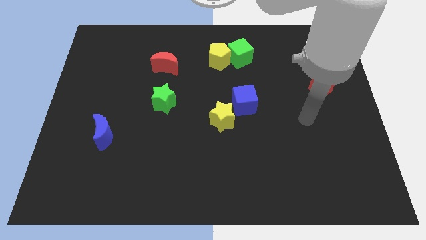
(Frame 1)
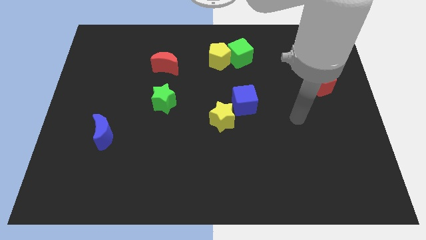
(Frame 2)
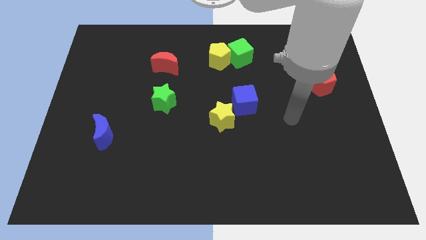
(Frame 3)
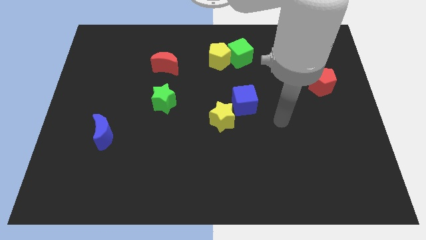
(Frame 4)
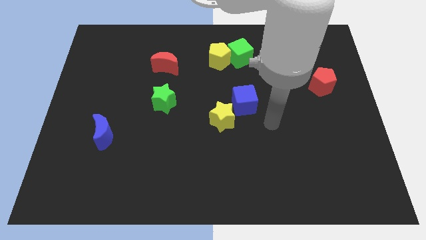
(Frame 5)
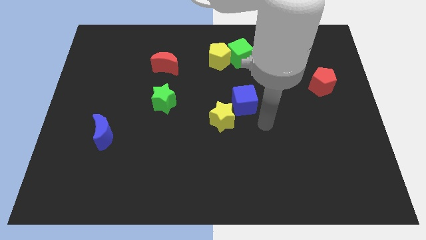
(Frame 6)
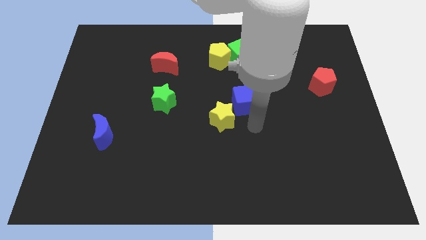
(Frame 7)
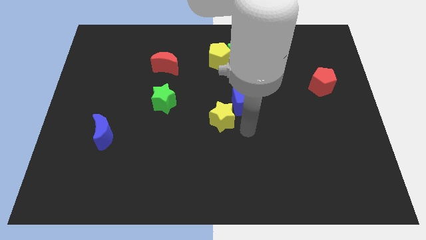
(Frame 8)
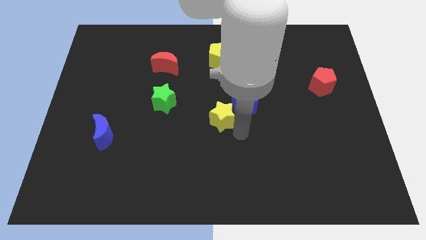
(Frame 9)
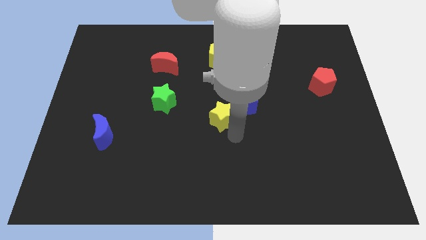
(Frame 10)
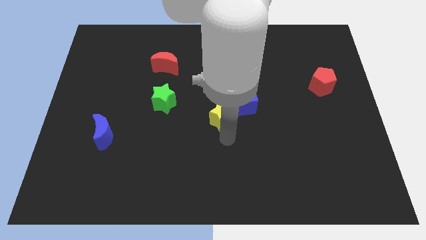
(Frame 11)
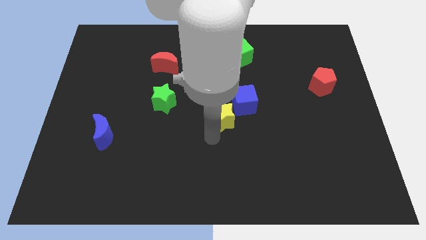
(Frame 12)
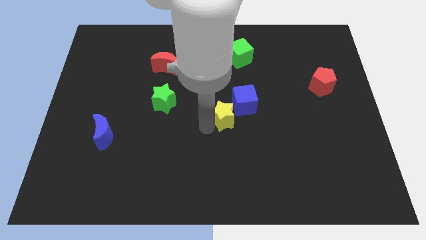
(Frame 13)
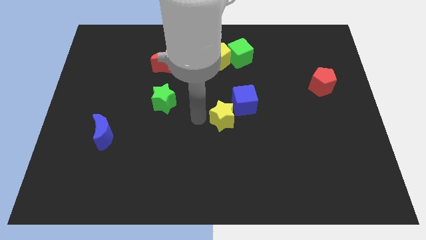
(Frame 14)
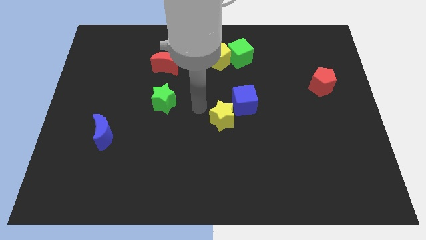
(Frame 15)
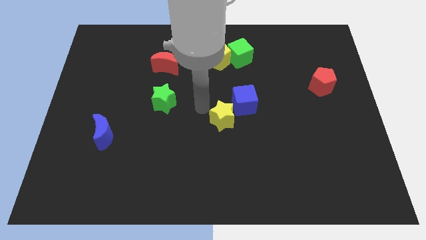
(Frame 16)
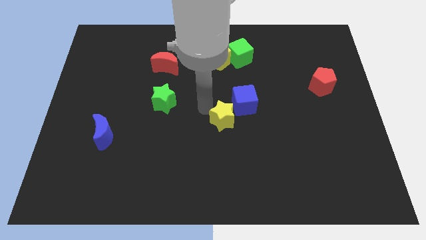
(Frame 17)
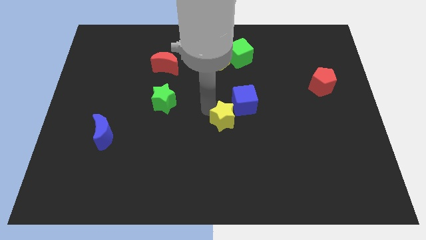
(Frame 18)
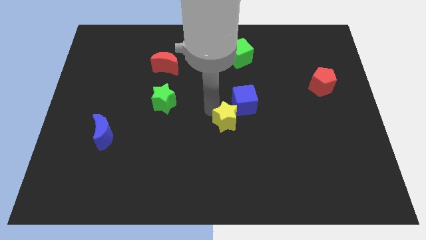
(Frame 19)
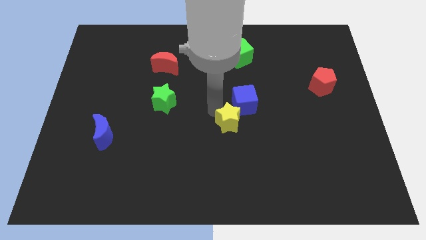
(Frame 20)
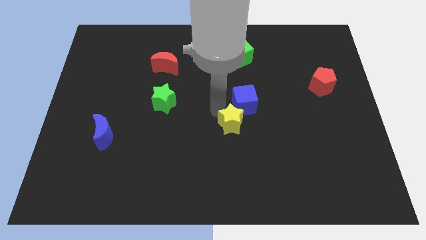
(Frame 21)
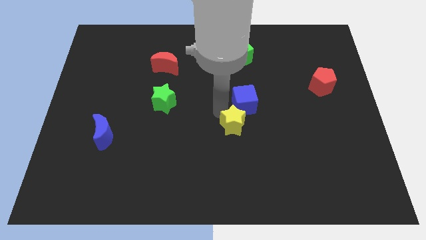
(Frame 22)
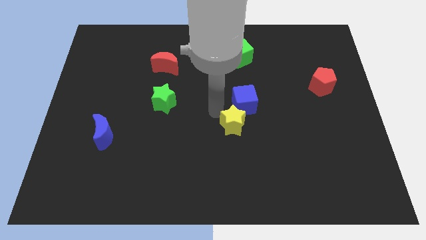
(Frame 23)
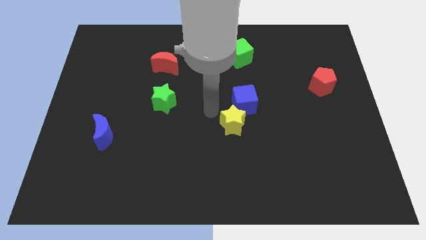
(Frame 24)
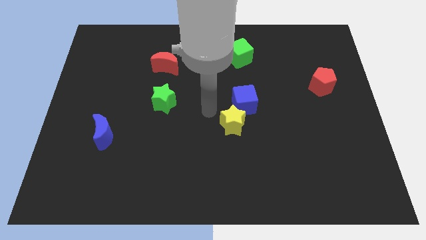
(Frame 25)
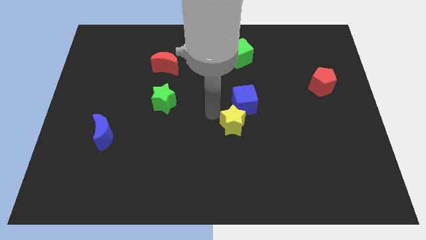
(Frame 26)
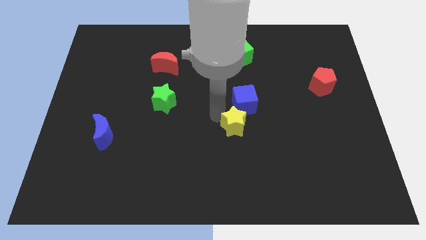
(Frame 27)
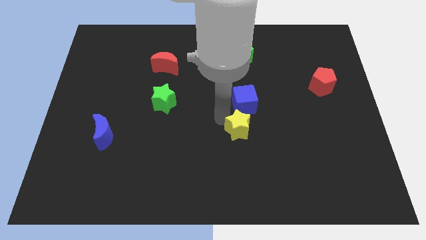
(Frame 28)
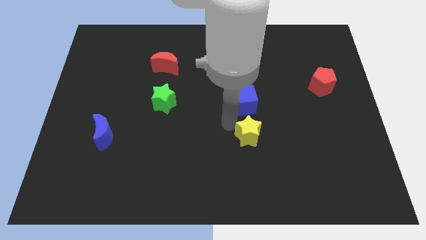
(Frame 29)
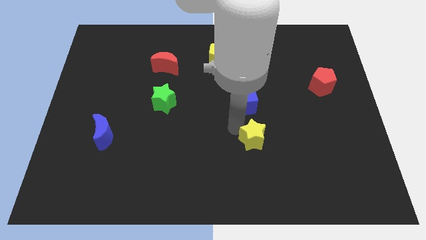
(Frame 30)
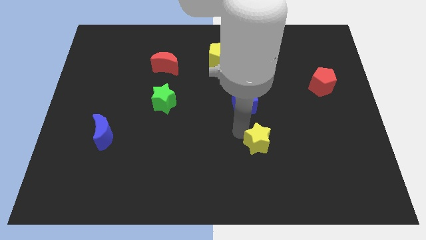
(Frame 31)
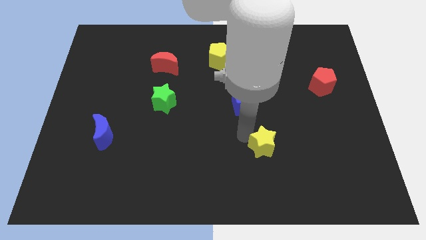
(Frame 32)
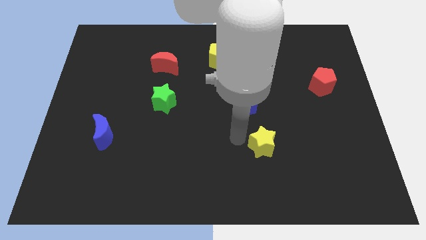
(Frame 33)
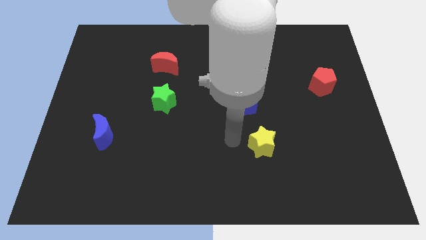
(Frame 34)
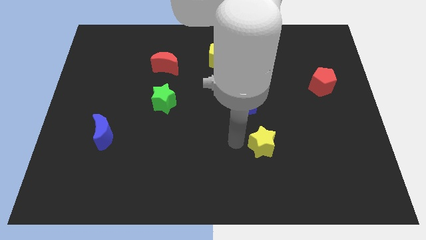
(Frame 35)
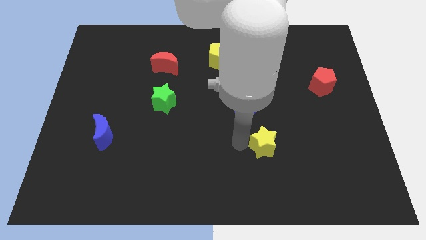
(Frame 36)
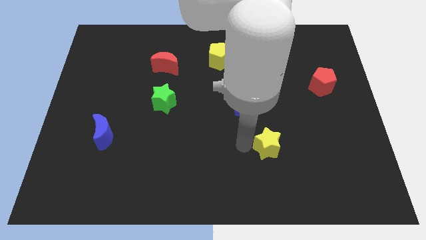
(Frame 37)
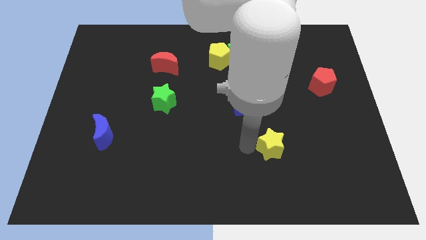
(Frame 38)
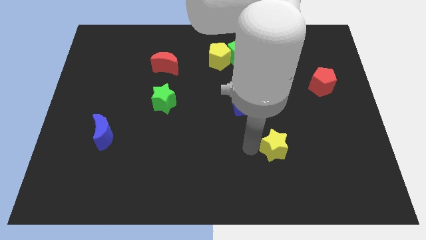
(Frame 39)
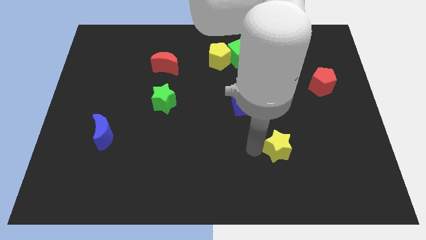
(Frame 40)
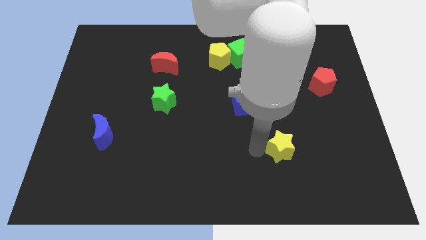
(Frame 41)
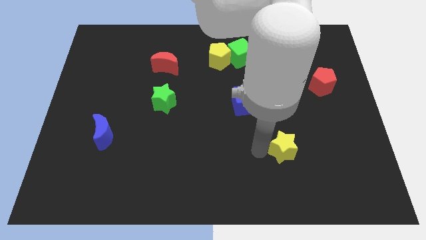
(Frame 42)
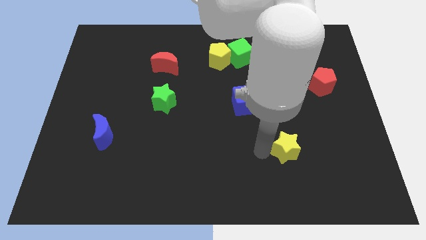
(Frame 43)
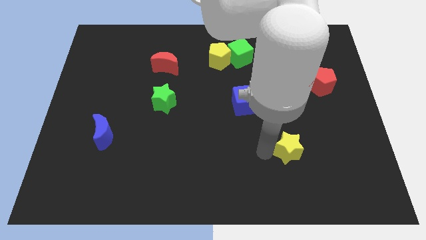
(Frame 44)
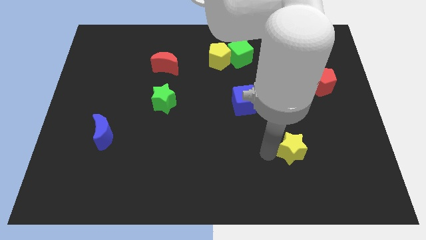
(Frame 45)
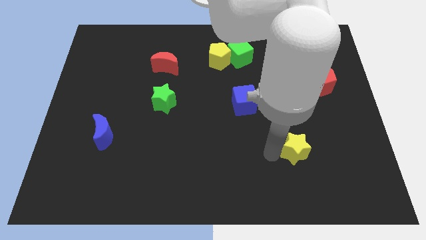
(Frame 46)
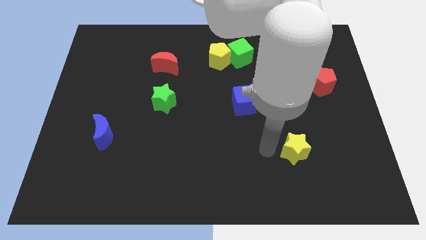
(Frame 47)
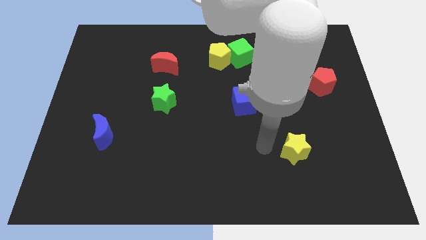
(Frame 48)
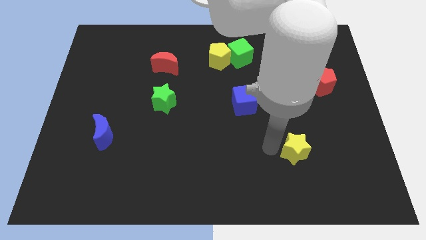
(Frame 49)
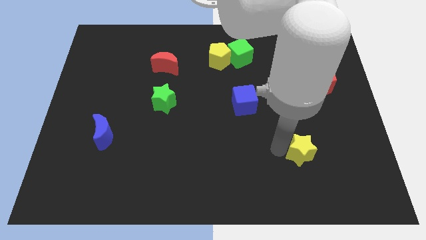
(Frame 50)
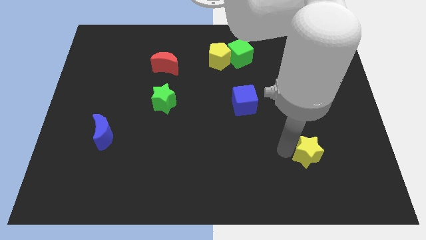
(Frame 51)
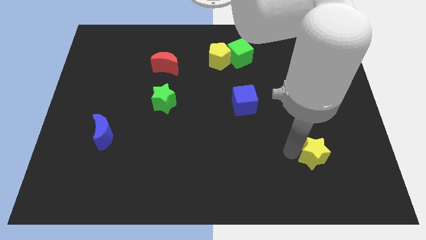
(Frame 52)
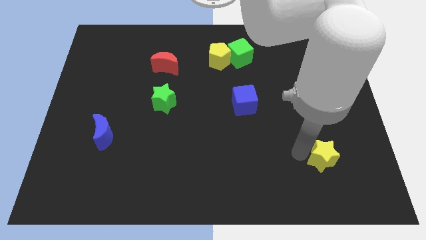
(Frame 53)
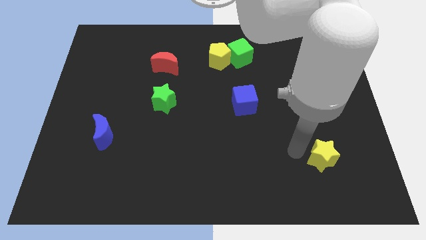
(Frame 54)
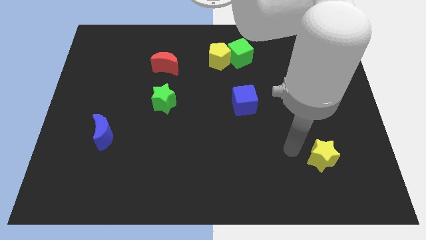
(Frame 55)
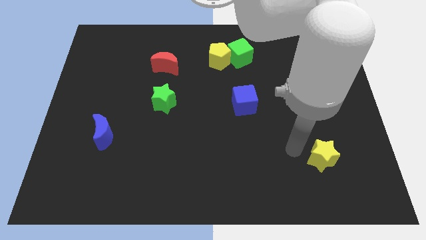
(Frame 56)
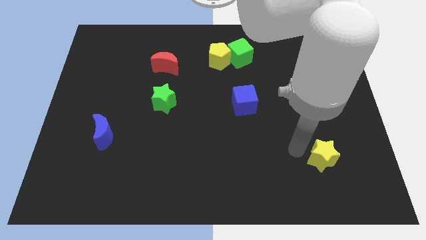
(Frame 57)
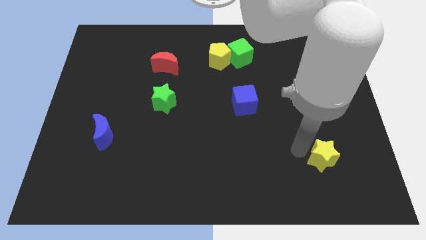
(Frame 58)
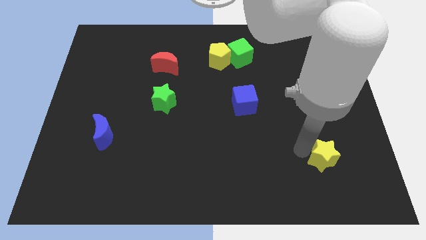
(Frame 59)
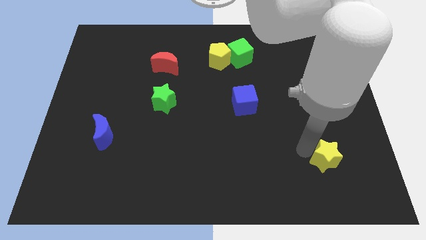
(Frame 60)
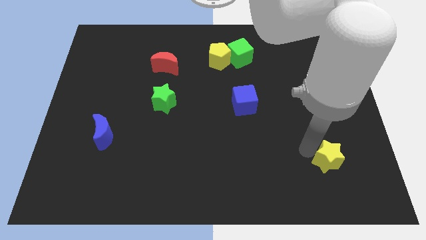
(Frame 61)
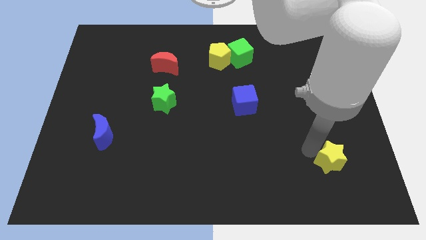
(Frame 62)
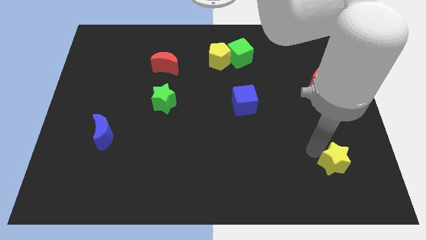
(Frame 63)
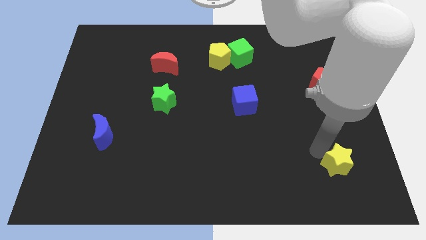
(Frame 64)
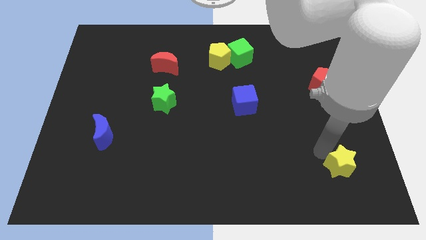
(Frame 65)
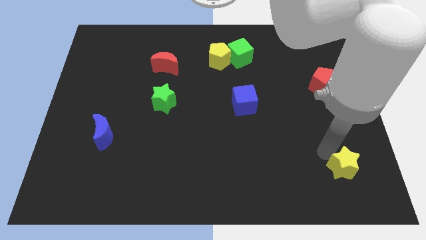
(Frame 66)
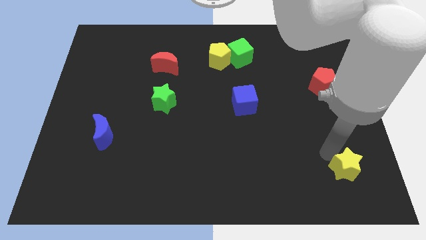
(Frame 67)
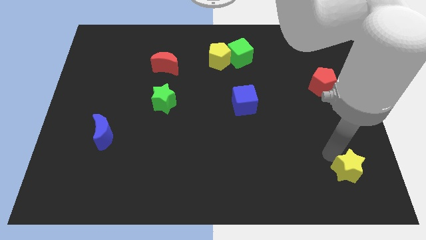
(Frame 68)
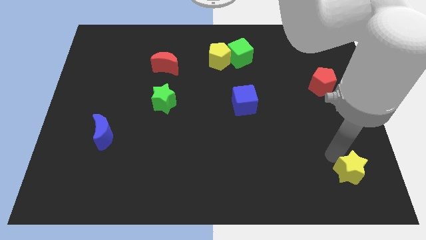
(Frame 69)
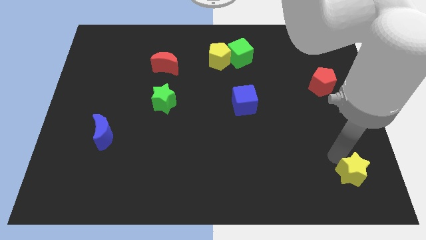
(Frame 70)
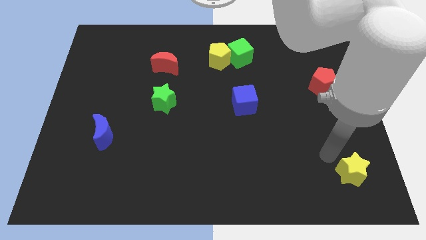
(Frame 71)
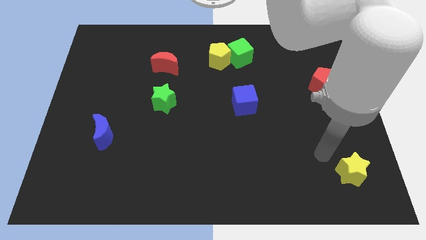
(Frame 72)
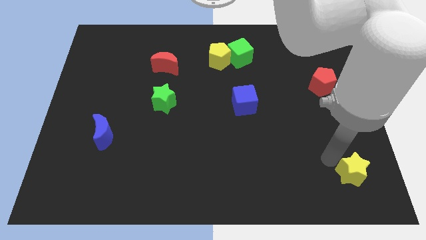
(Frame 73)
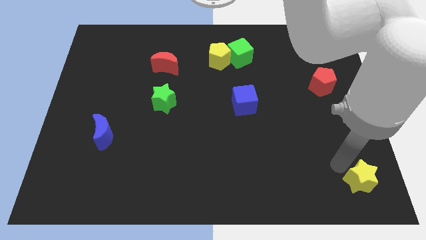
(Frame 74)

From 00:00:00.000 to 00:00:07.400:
put the yellow star to the bottom right

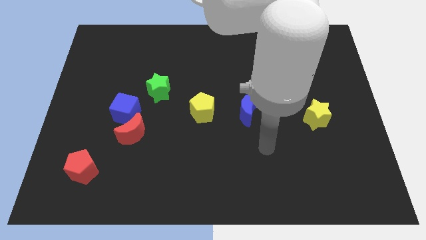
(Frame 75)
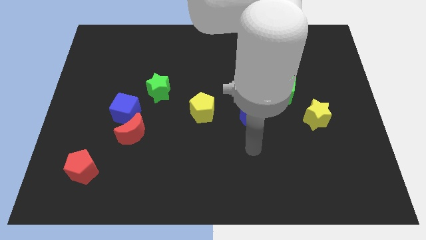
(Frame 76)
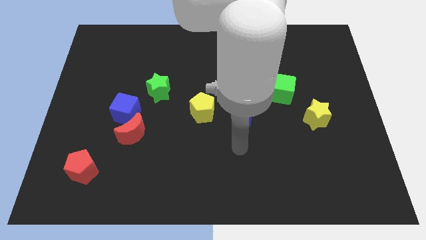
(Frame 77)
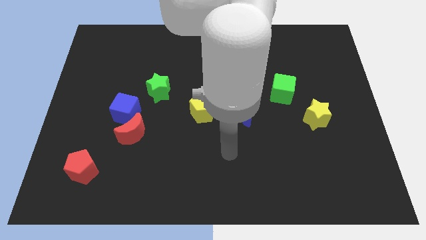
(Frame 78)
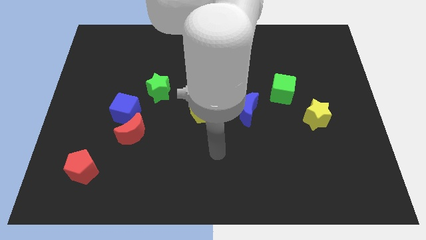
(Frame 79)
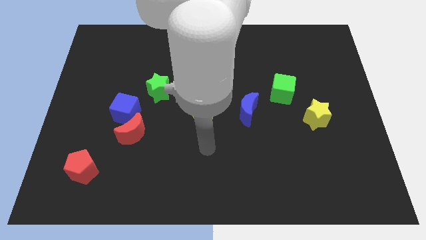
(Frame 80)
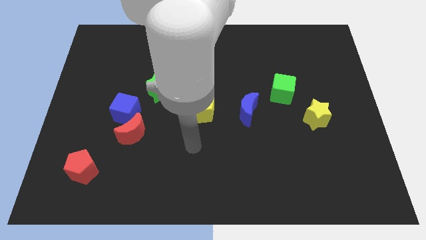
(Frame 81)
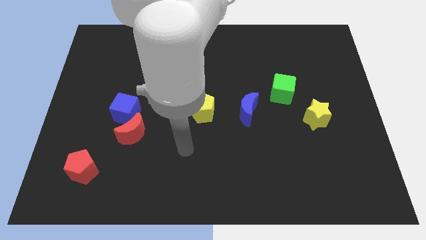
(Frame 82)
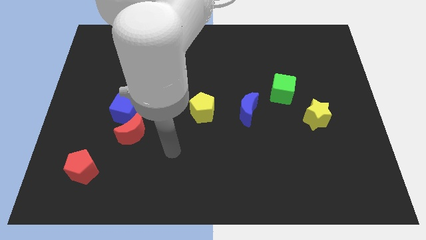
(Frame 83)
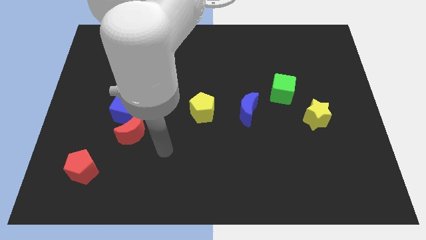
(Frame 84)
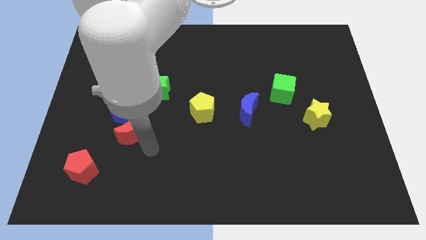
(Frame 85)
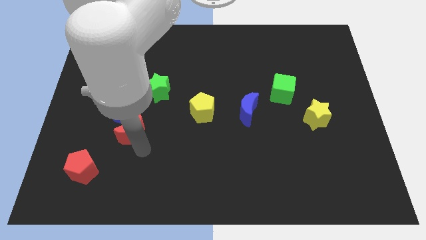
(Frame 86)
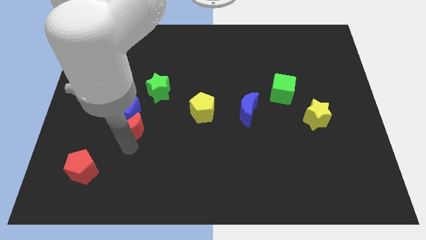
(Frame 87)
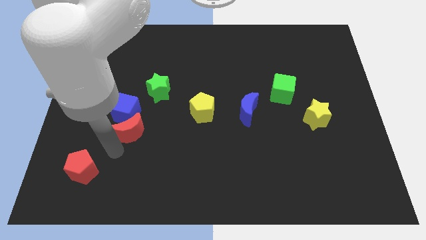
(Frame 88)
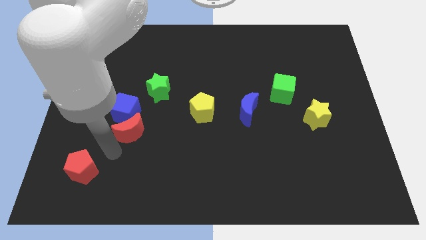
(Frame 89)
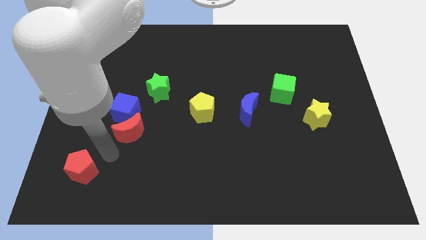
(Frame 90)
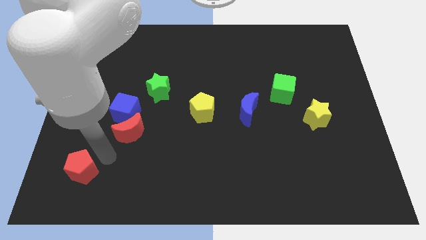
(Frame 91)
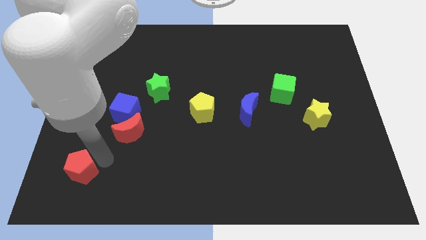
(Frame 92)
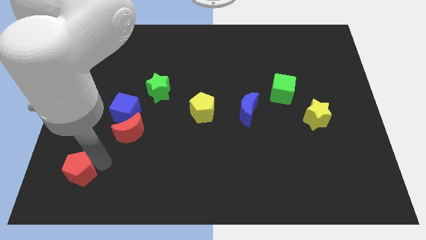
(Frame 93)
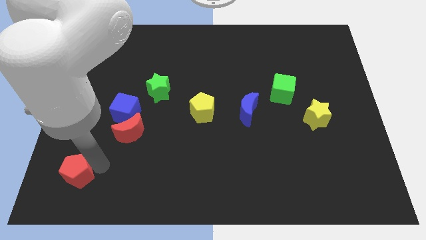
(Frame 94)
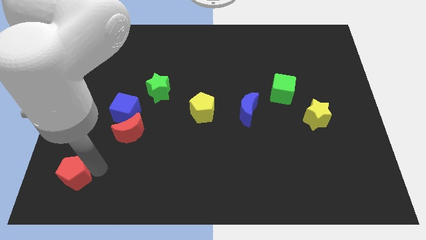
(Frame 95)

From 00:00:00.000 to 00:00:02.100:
push the red pentagon to the lower left corner
